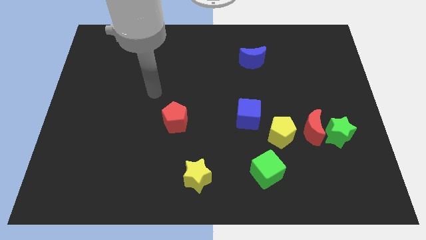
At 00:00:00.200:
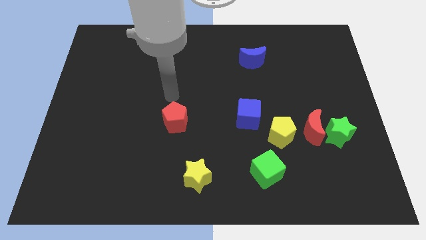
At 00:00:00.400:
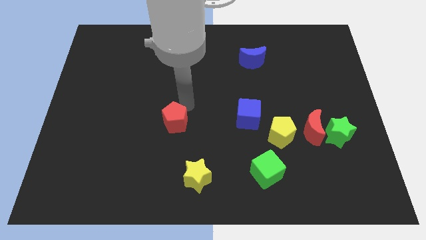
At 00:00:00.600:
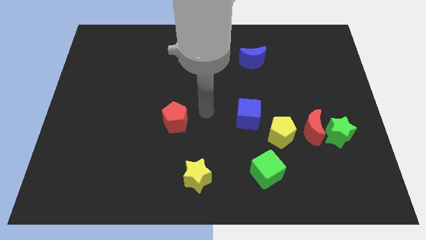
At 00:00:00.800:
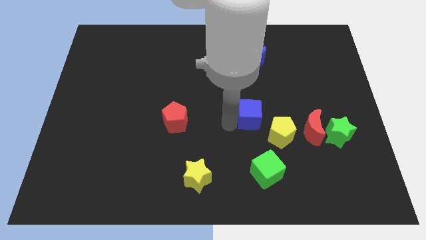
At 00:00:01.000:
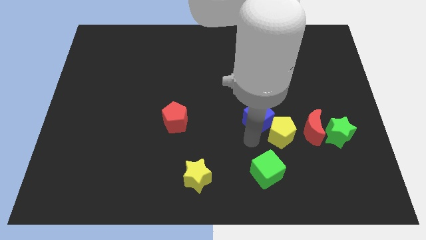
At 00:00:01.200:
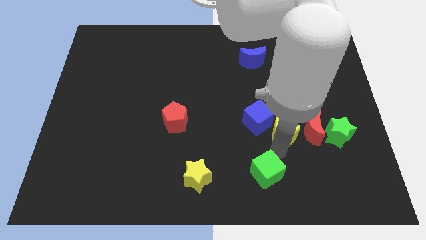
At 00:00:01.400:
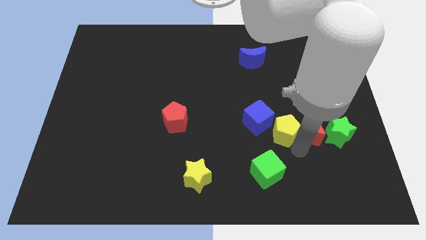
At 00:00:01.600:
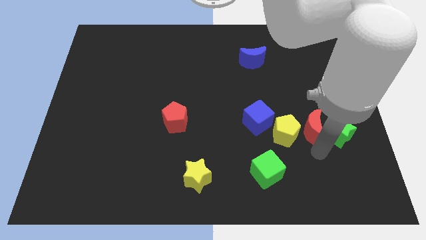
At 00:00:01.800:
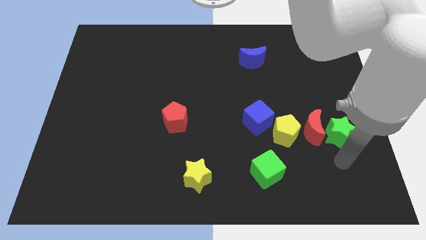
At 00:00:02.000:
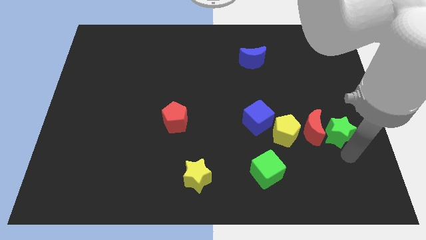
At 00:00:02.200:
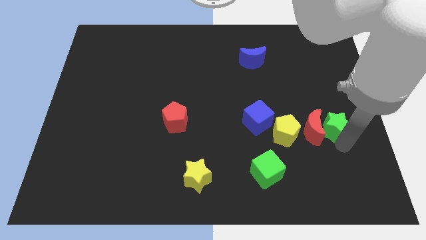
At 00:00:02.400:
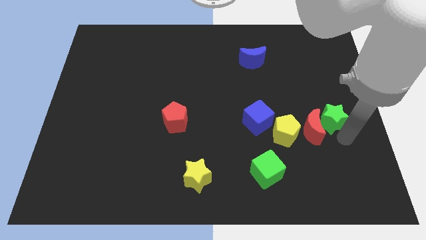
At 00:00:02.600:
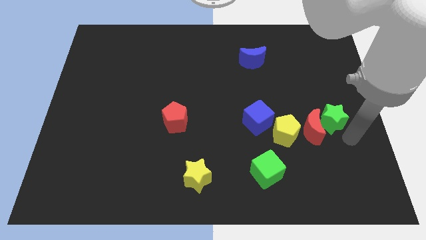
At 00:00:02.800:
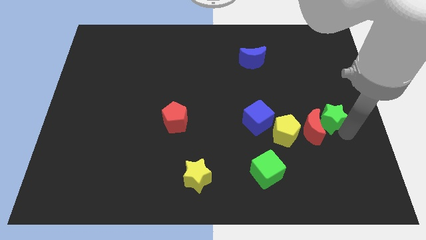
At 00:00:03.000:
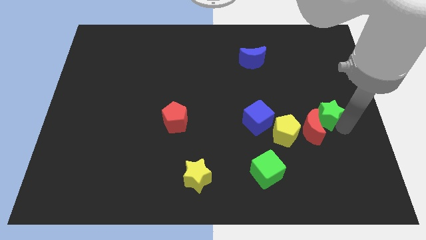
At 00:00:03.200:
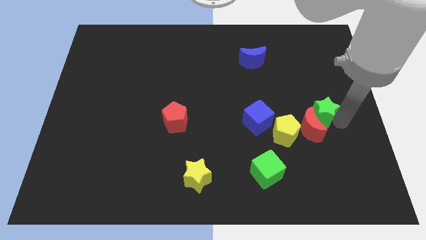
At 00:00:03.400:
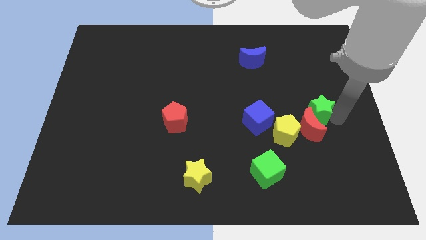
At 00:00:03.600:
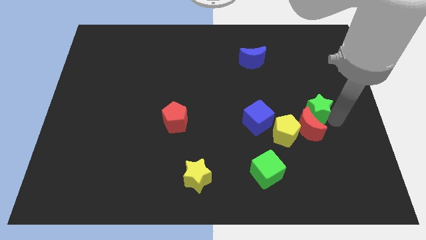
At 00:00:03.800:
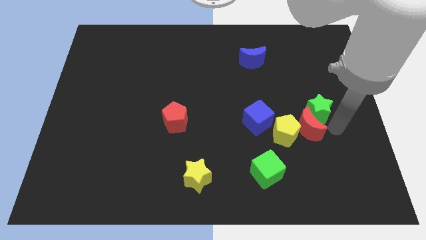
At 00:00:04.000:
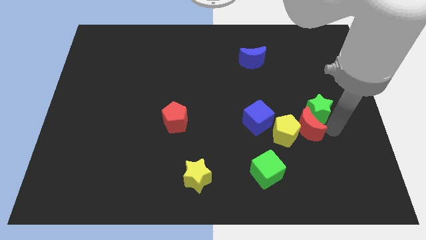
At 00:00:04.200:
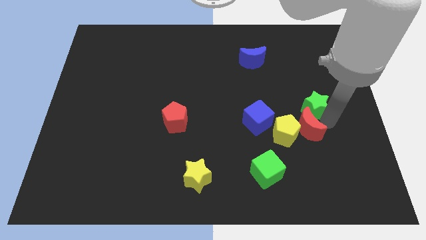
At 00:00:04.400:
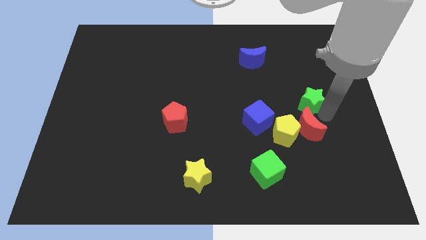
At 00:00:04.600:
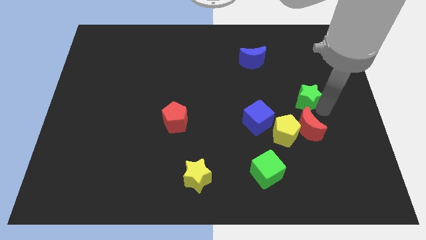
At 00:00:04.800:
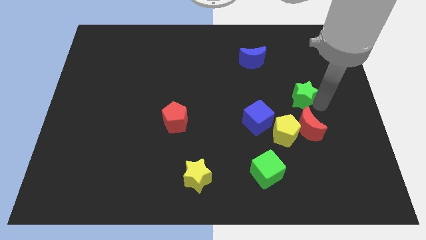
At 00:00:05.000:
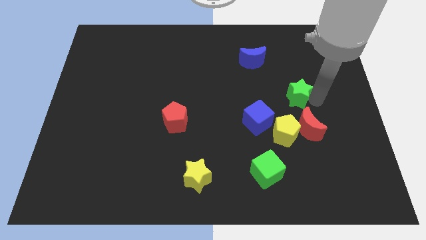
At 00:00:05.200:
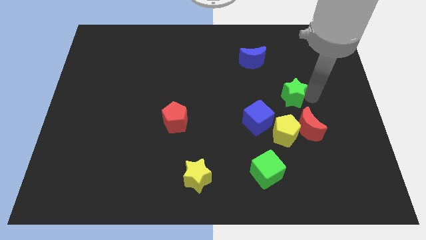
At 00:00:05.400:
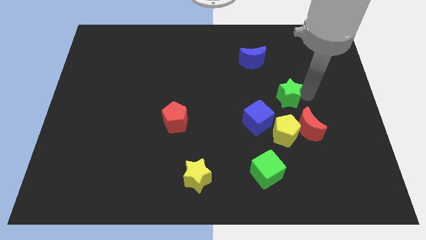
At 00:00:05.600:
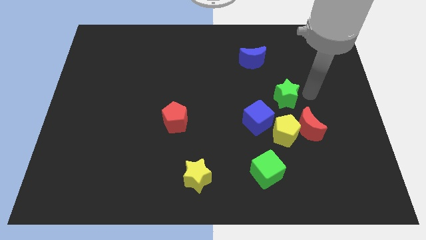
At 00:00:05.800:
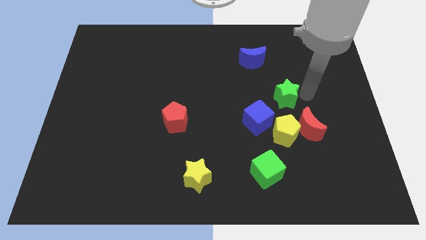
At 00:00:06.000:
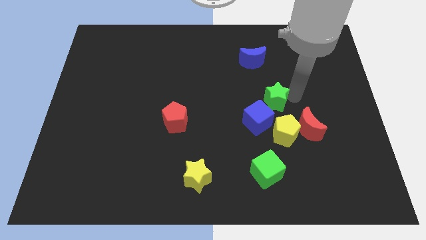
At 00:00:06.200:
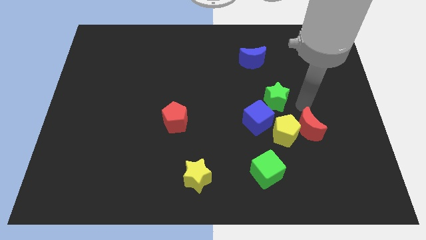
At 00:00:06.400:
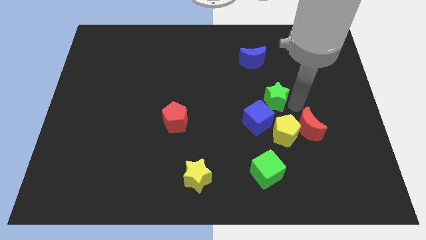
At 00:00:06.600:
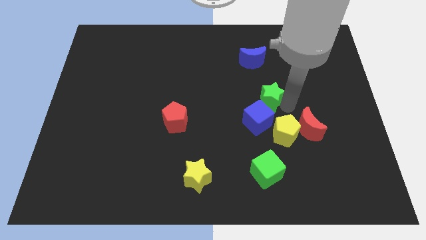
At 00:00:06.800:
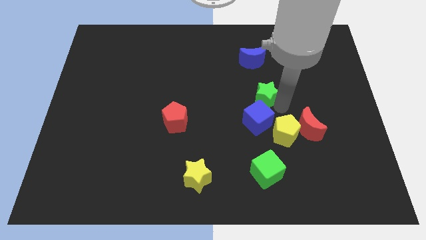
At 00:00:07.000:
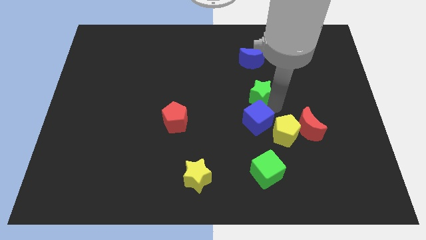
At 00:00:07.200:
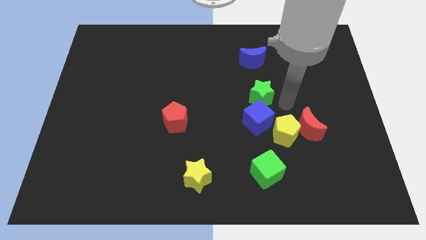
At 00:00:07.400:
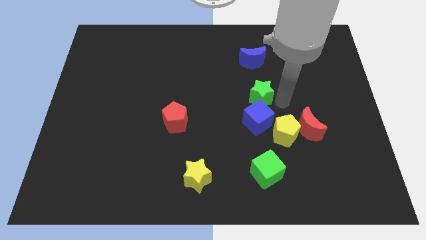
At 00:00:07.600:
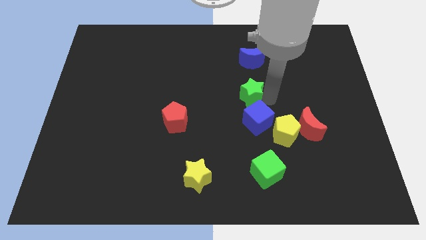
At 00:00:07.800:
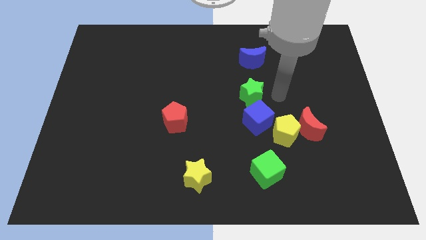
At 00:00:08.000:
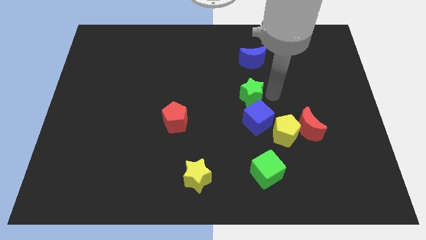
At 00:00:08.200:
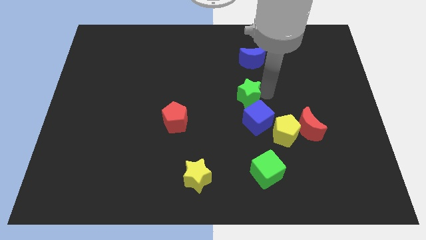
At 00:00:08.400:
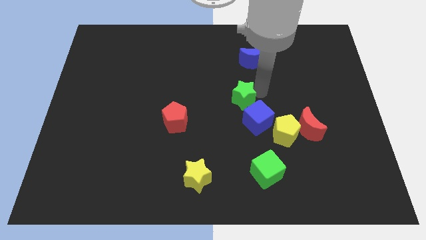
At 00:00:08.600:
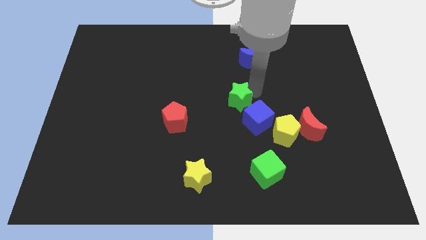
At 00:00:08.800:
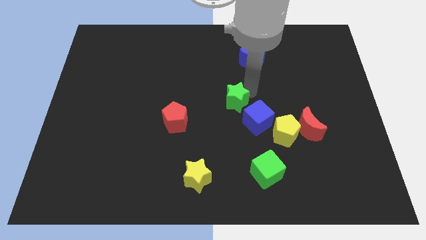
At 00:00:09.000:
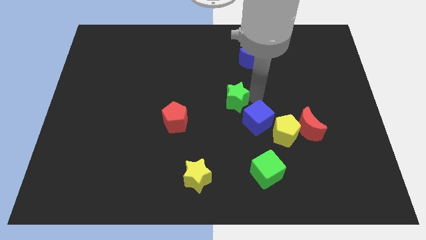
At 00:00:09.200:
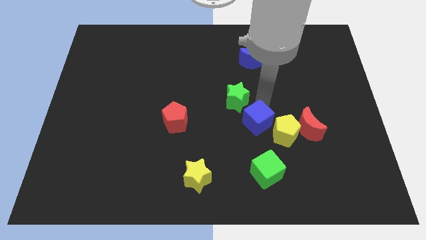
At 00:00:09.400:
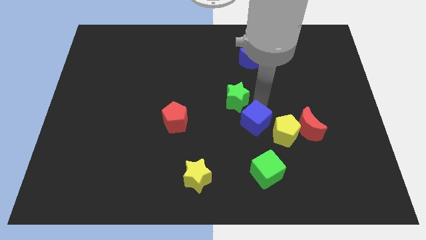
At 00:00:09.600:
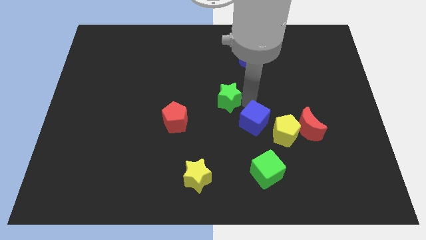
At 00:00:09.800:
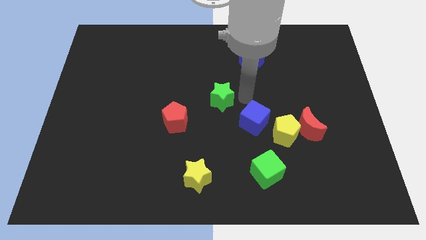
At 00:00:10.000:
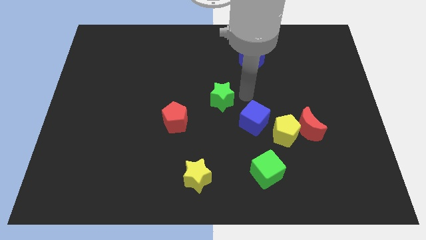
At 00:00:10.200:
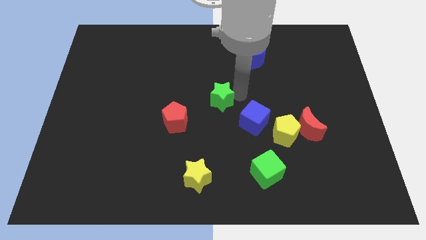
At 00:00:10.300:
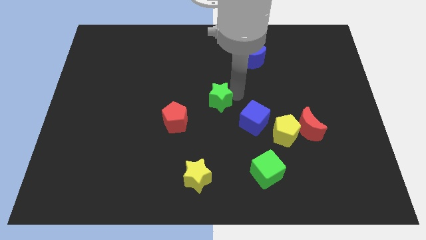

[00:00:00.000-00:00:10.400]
slide the green star to the top right side of the red pentagon

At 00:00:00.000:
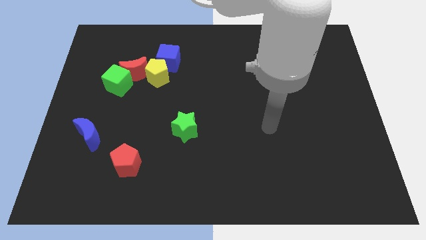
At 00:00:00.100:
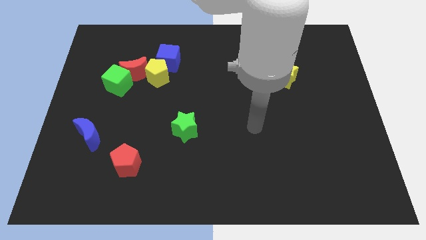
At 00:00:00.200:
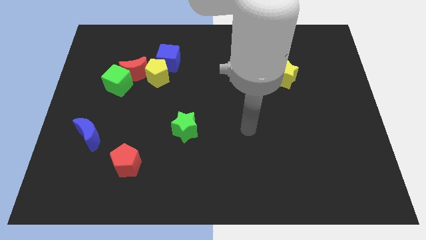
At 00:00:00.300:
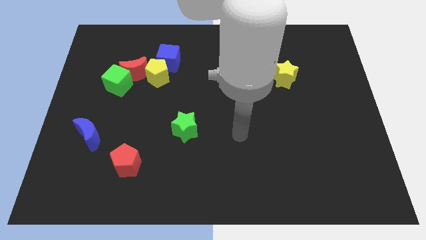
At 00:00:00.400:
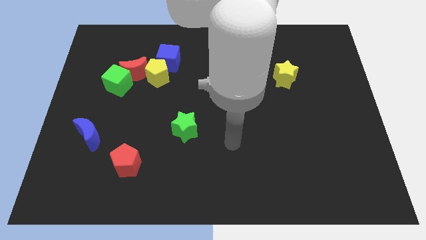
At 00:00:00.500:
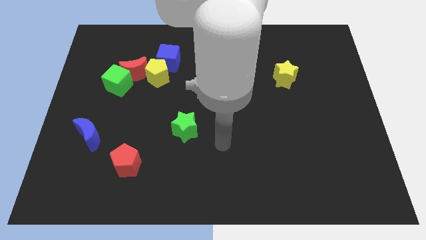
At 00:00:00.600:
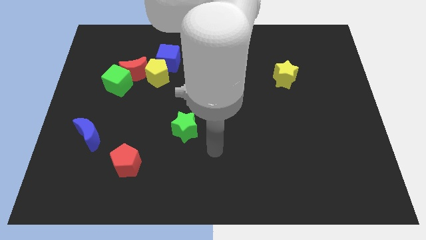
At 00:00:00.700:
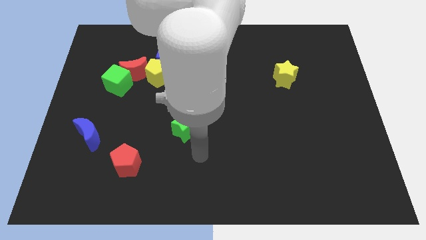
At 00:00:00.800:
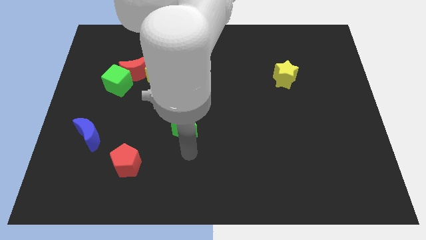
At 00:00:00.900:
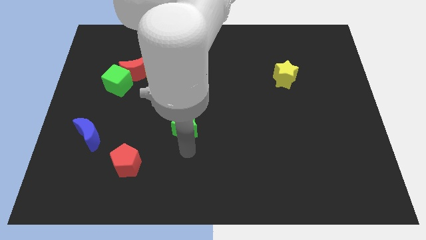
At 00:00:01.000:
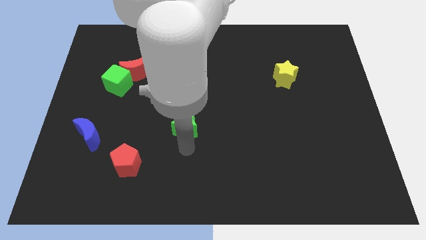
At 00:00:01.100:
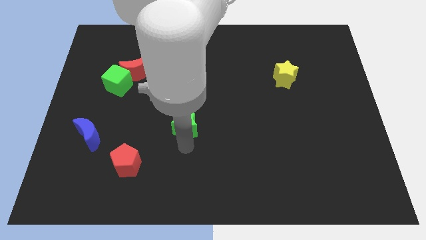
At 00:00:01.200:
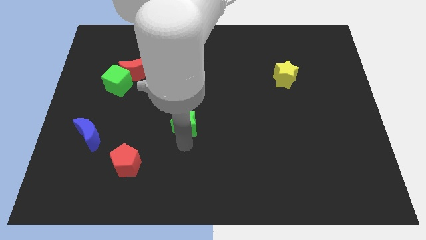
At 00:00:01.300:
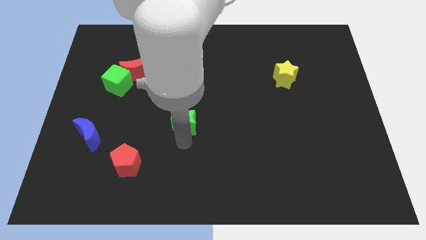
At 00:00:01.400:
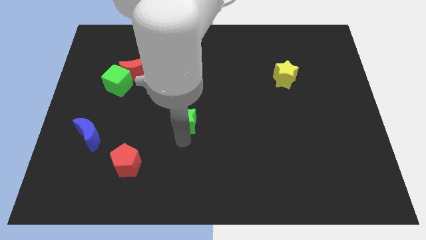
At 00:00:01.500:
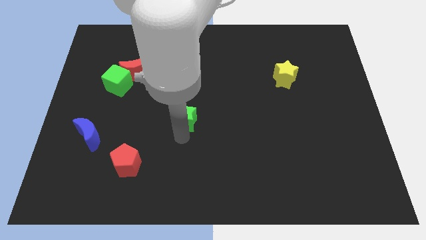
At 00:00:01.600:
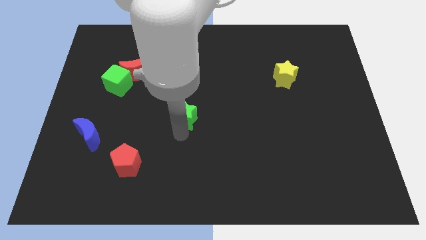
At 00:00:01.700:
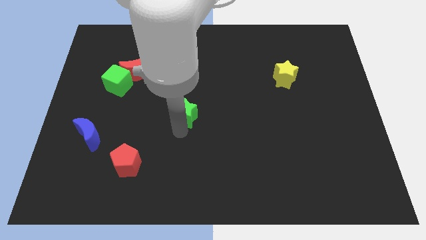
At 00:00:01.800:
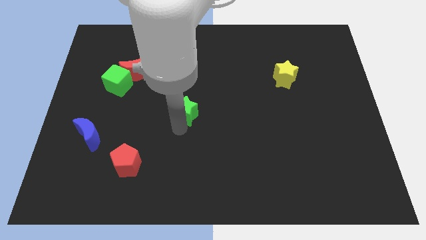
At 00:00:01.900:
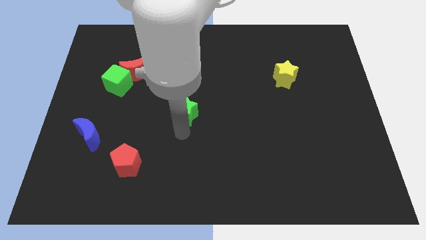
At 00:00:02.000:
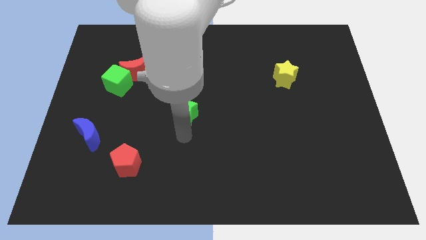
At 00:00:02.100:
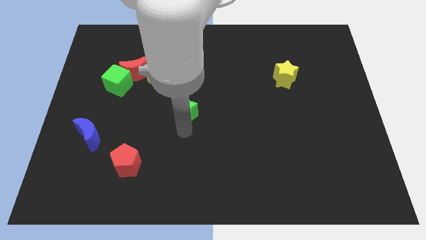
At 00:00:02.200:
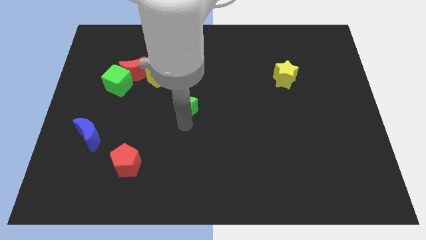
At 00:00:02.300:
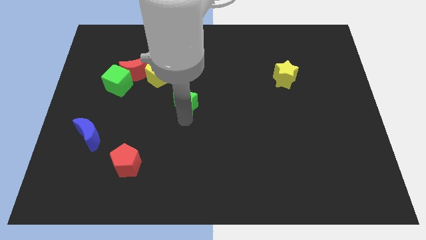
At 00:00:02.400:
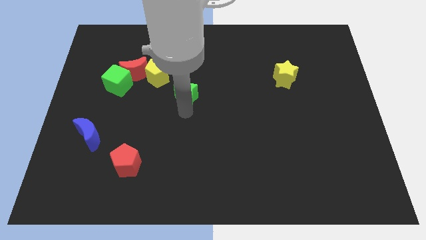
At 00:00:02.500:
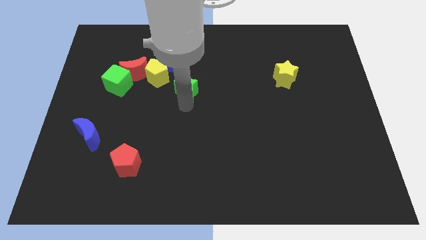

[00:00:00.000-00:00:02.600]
push the green star to the bottom right of the blue cube

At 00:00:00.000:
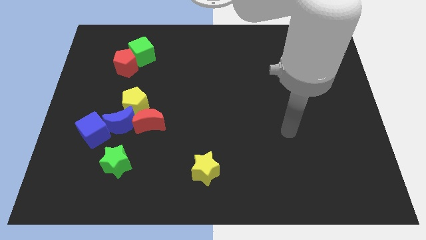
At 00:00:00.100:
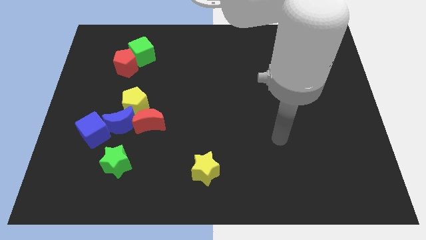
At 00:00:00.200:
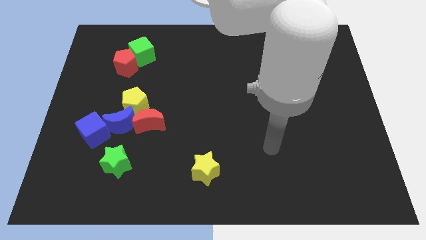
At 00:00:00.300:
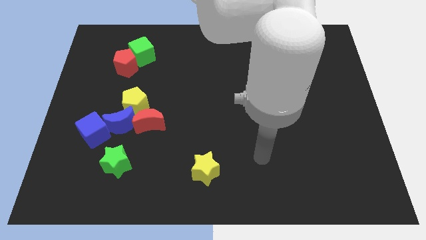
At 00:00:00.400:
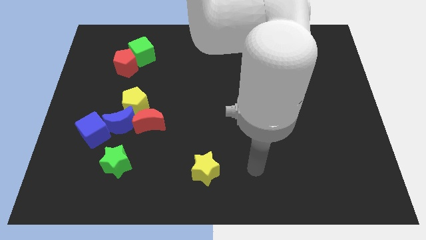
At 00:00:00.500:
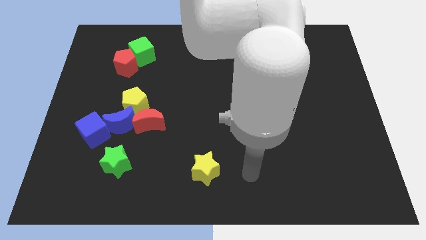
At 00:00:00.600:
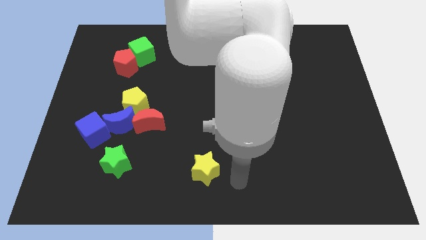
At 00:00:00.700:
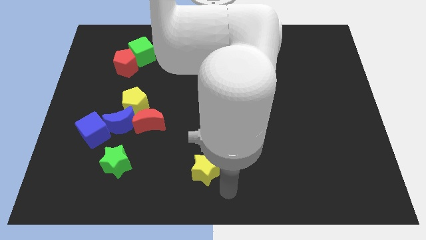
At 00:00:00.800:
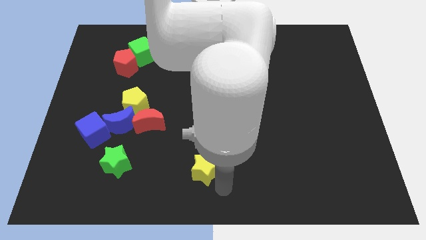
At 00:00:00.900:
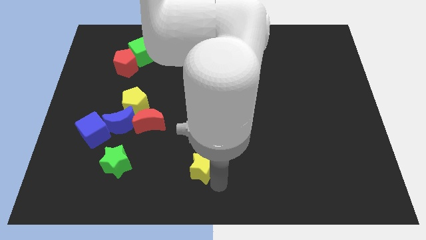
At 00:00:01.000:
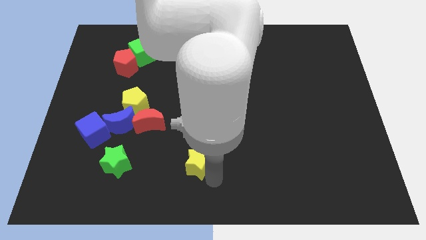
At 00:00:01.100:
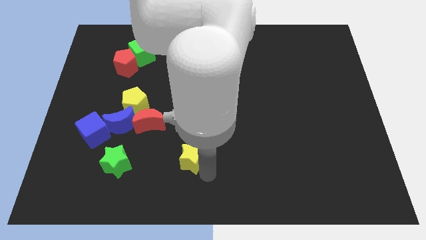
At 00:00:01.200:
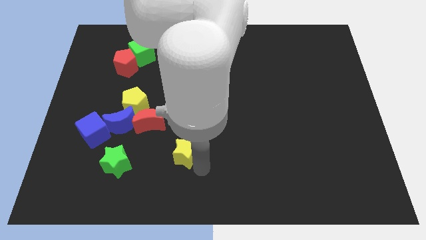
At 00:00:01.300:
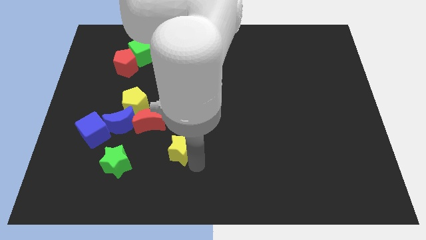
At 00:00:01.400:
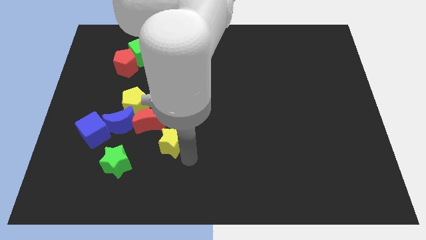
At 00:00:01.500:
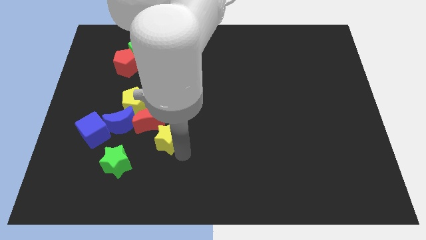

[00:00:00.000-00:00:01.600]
slide the yellow star to the bottom right side of the yellow pentagon
